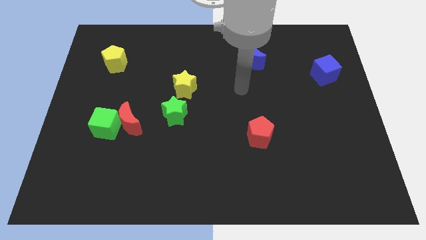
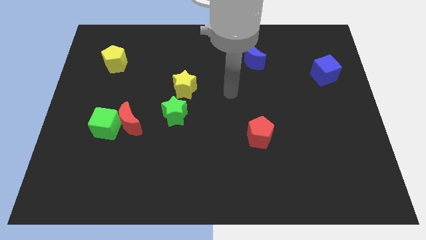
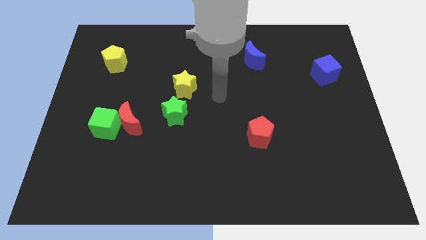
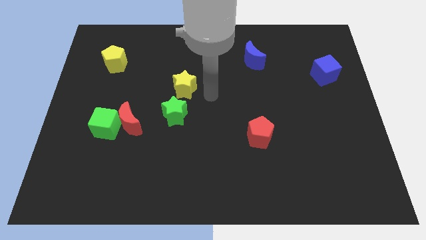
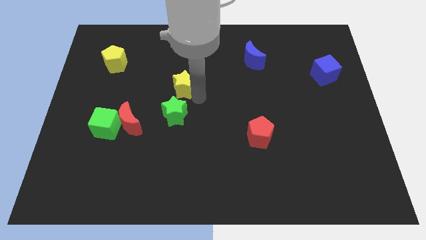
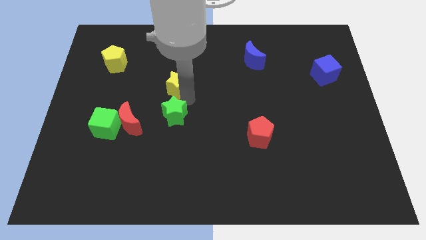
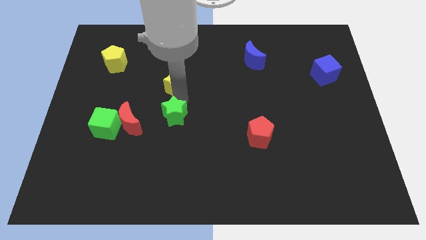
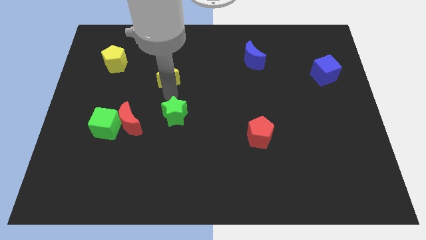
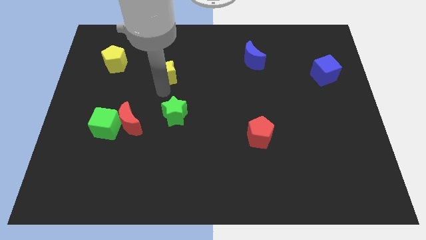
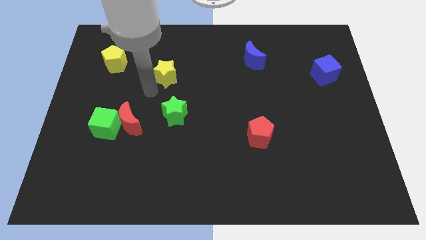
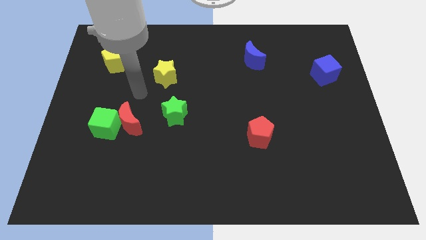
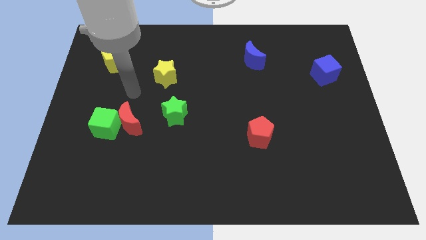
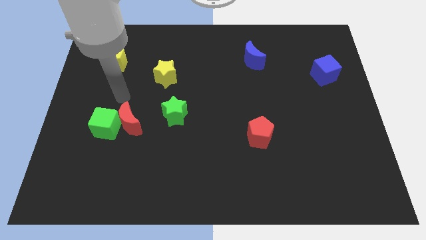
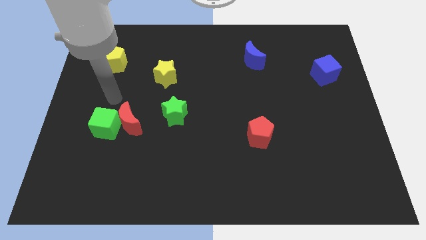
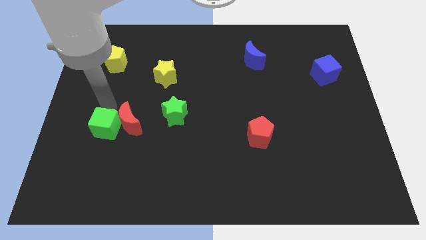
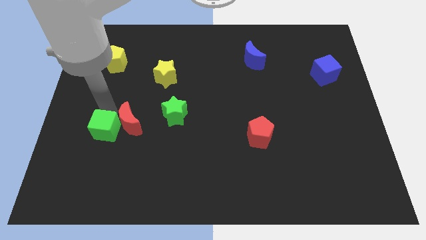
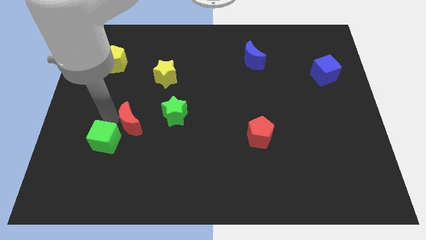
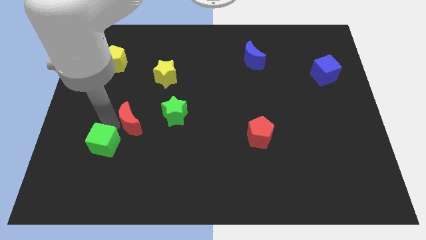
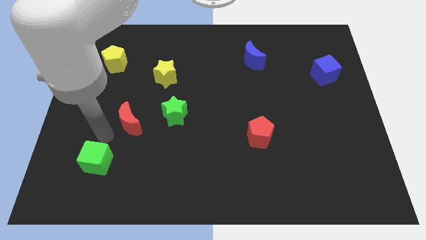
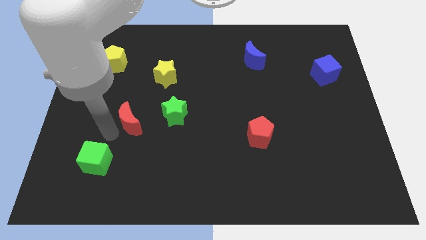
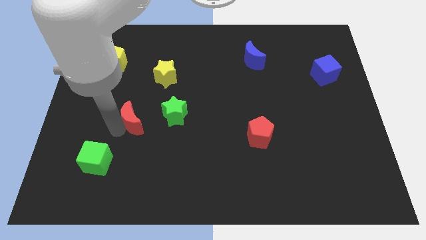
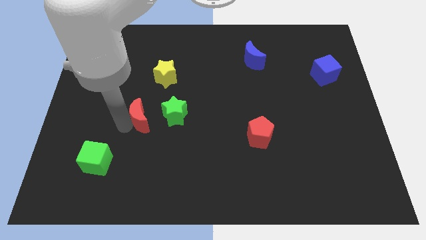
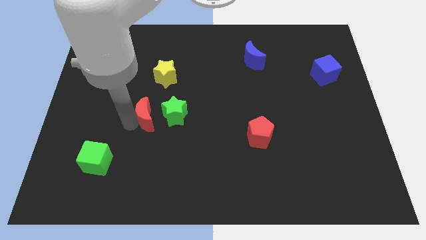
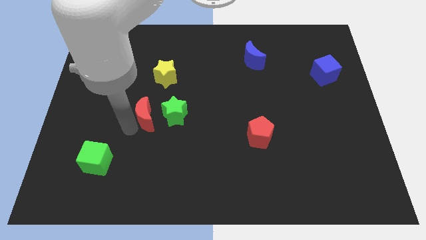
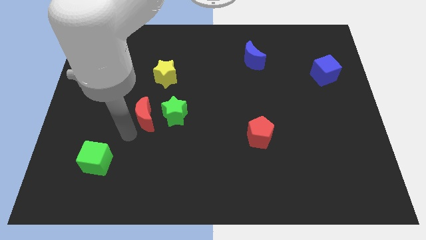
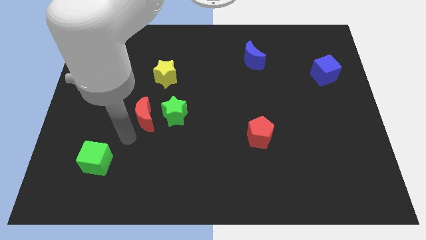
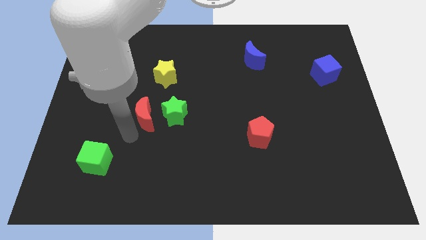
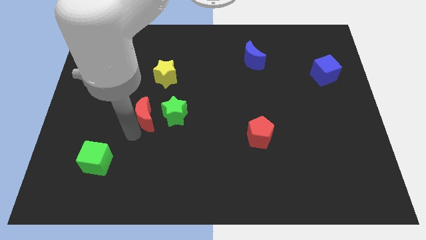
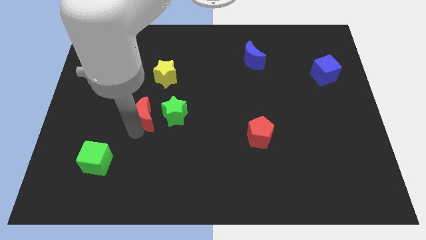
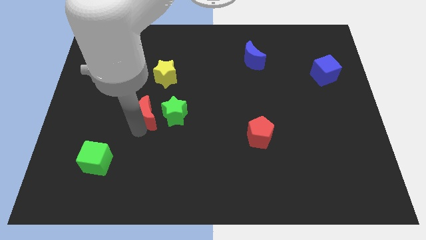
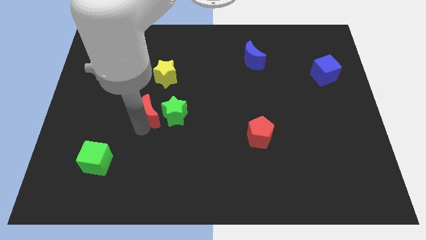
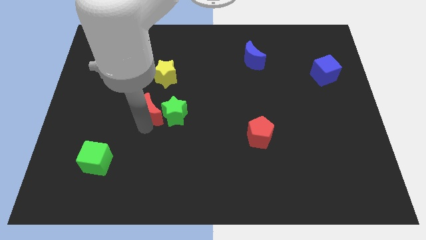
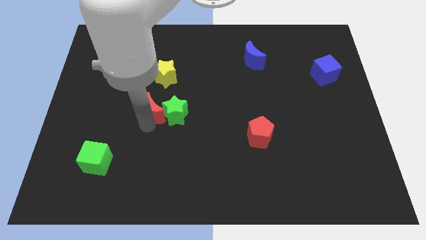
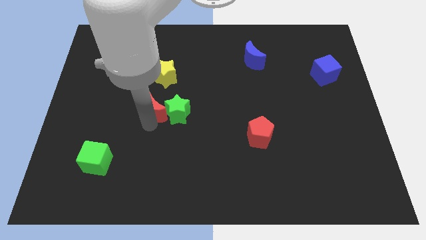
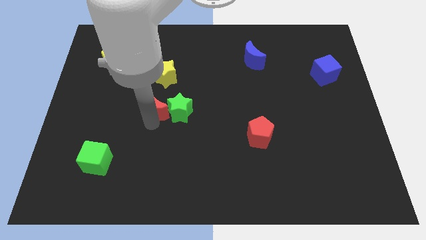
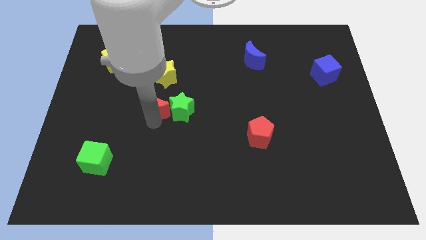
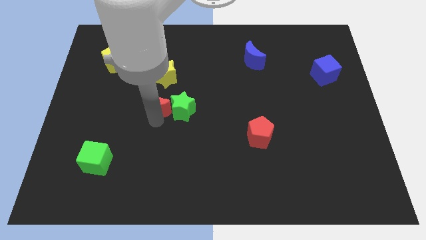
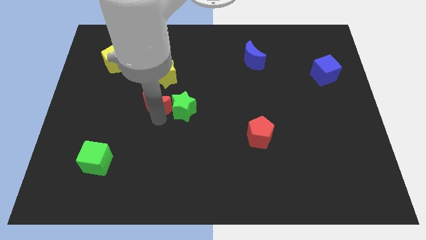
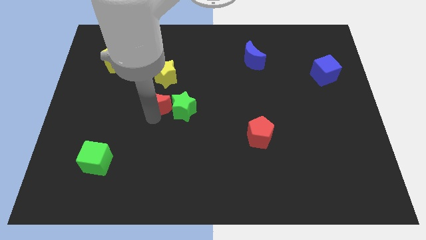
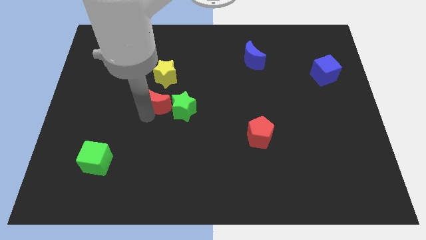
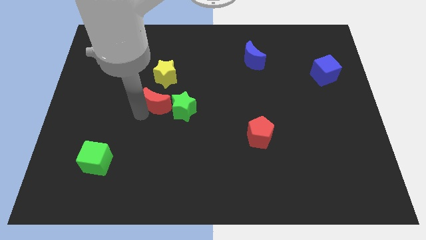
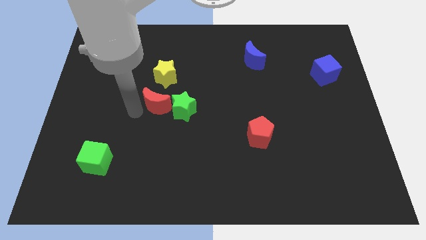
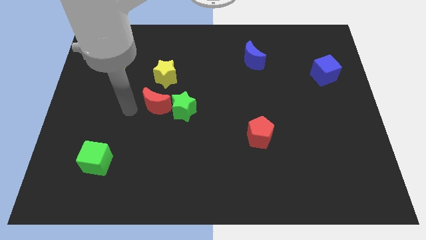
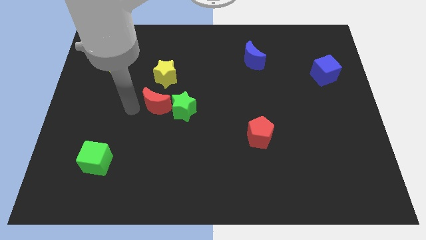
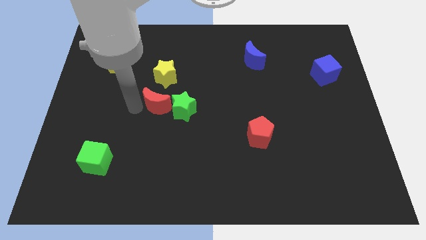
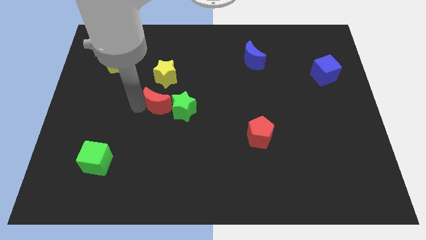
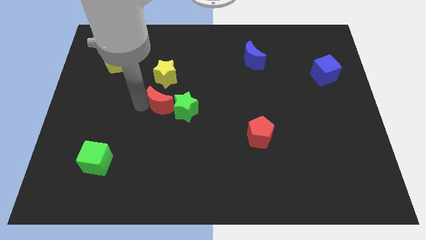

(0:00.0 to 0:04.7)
slide the red moon to the center of the board

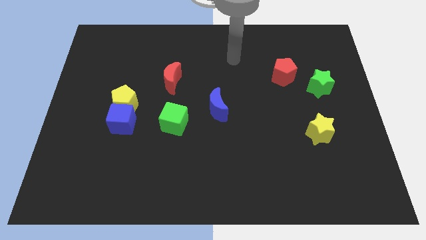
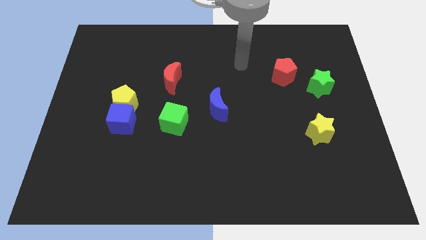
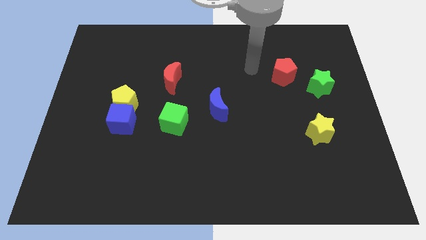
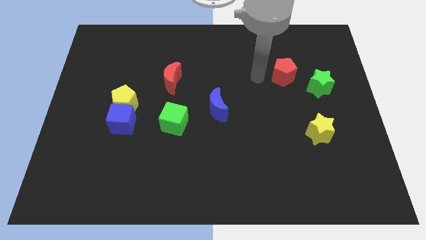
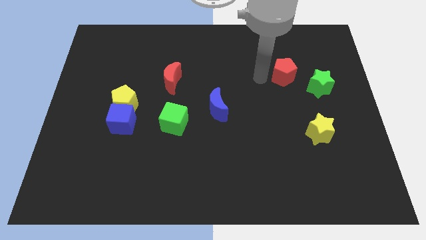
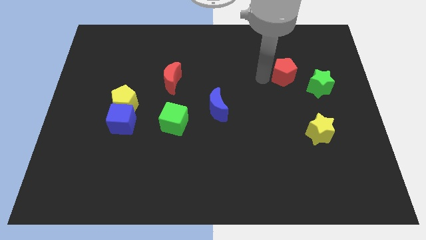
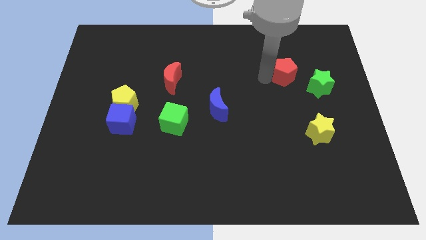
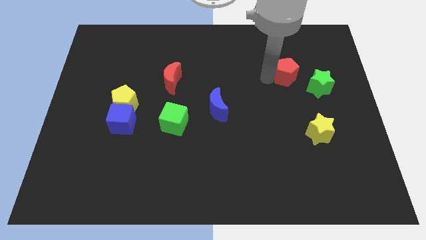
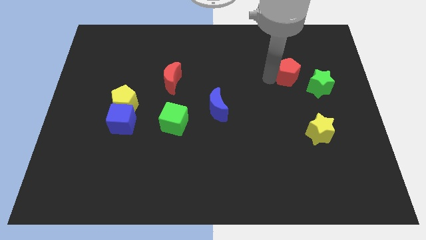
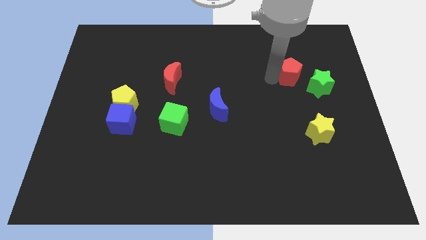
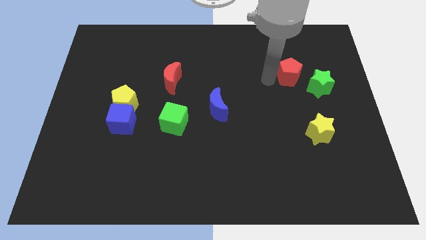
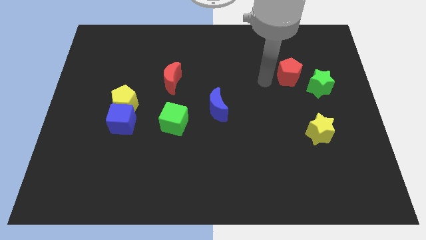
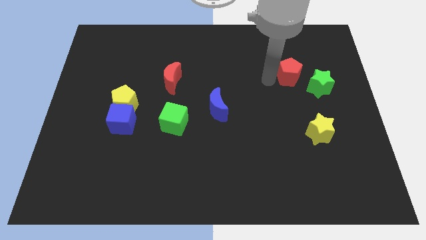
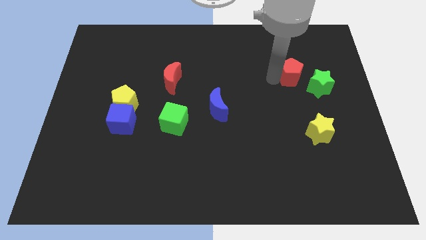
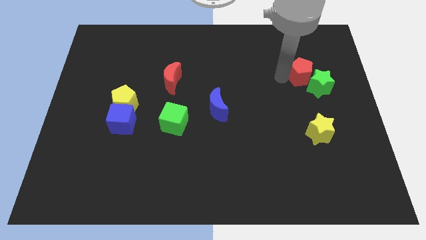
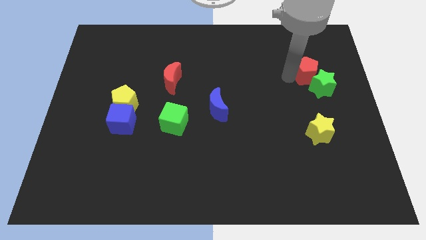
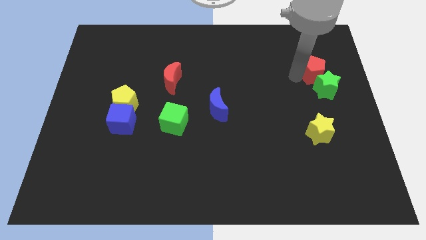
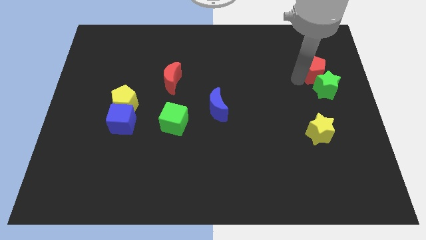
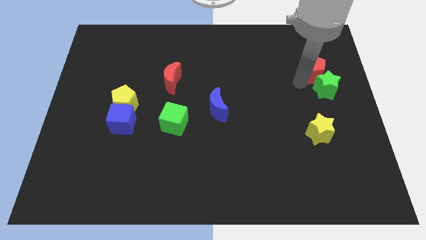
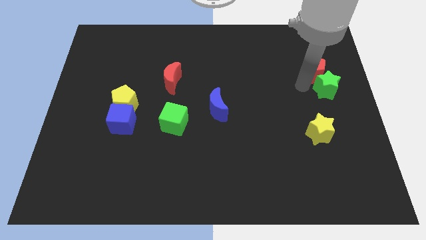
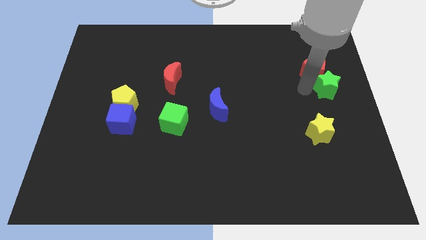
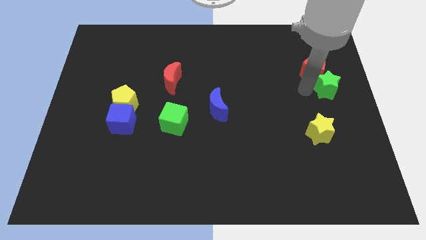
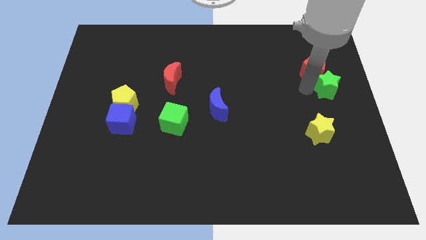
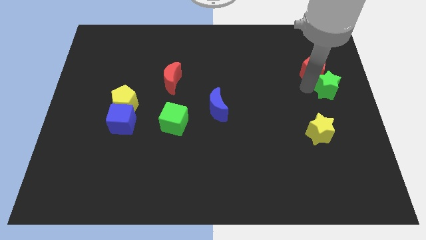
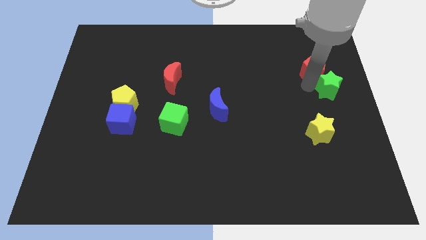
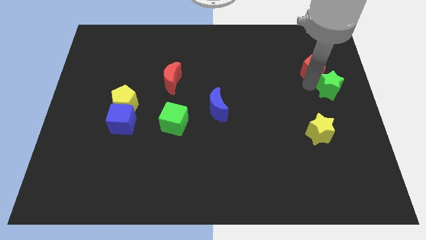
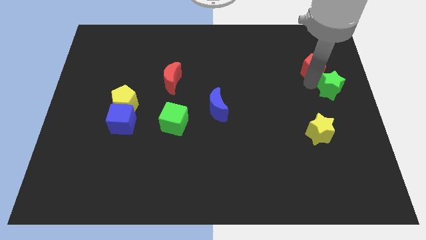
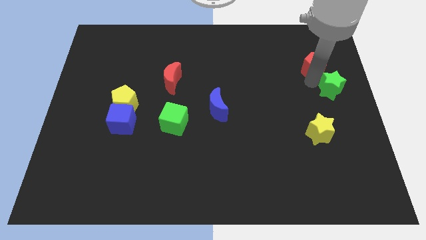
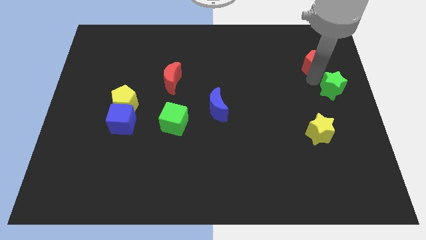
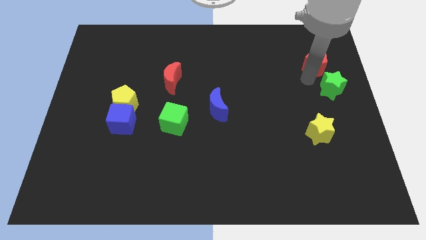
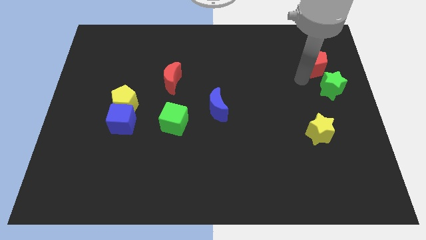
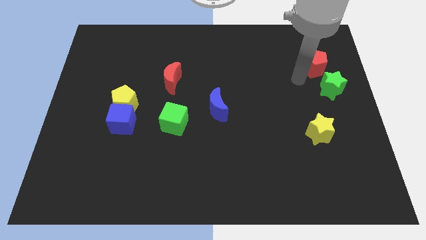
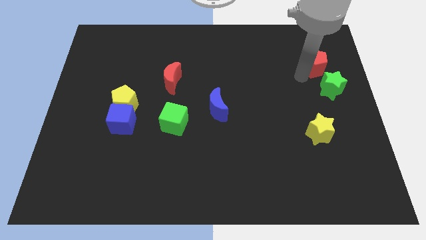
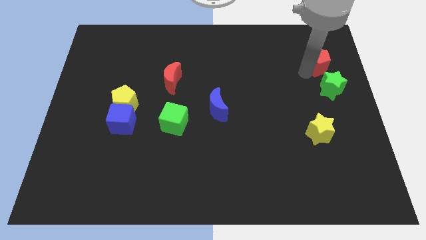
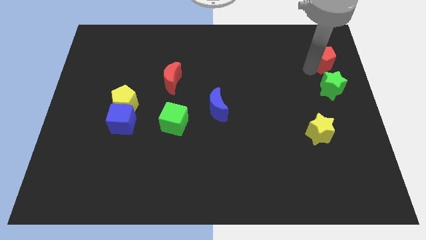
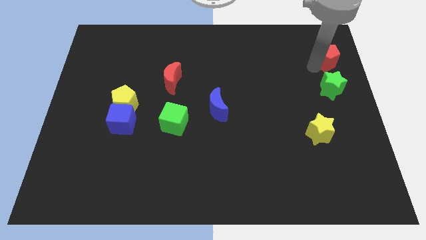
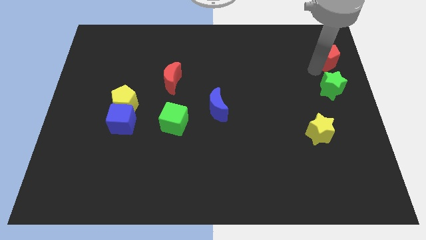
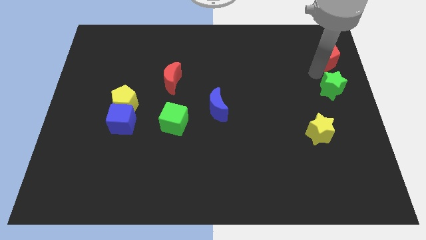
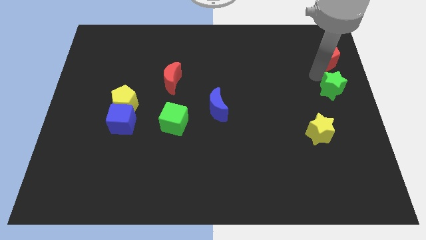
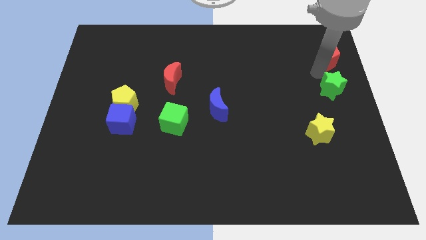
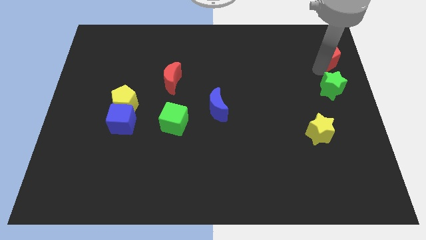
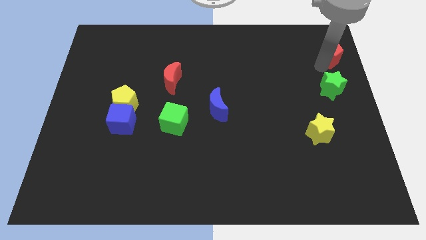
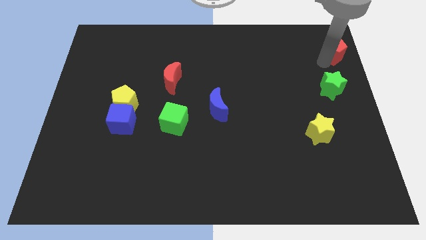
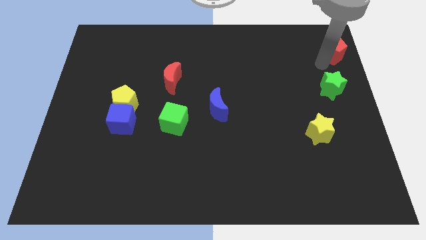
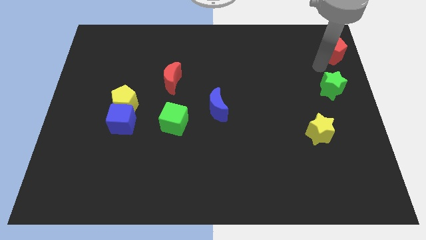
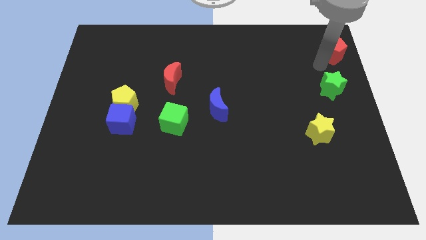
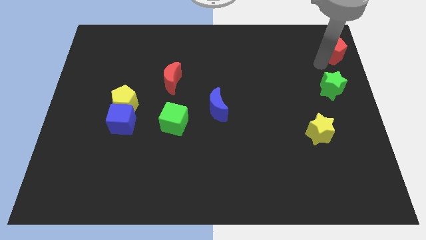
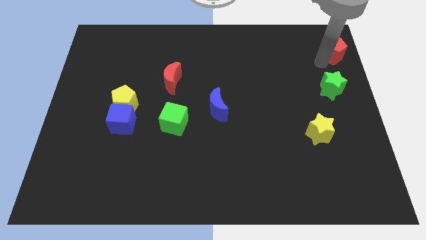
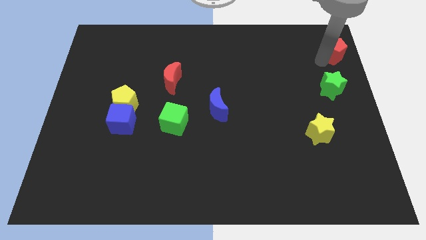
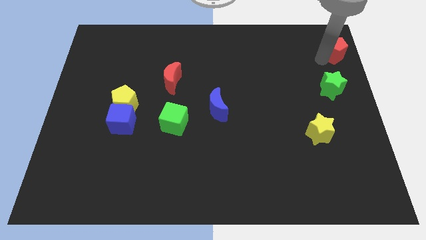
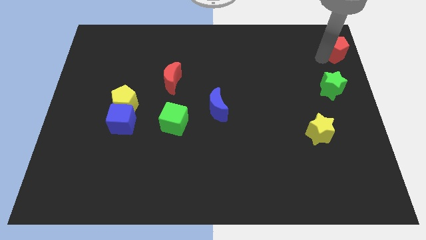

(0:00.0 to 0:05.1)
push the red pentagon to the top right corner
